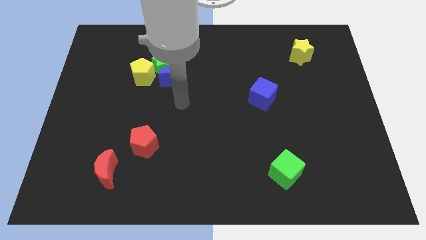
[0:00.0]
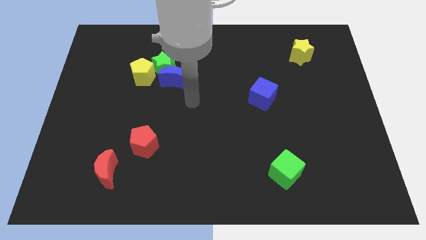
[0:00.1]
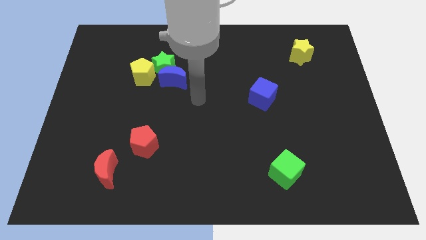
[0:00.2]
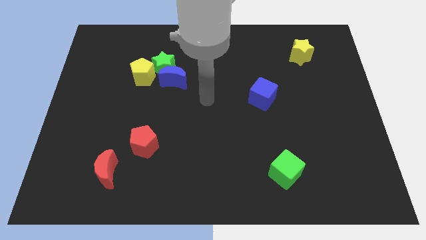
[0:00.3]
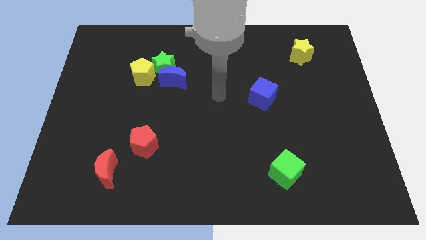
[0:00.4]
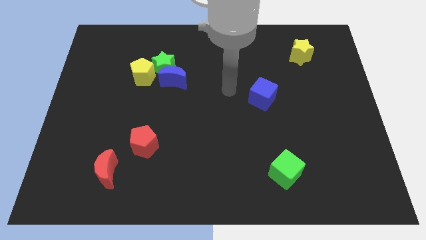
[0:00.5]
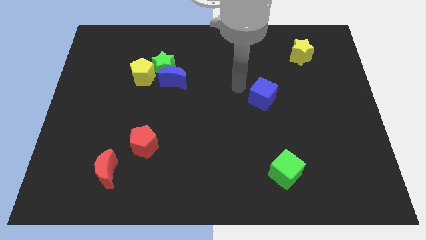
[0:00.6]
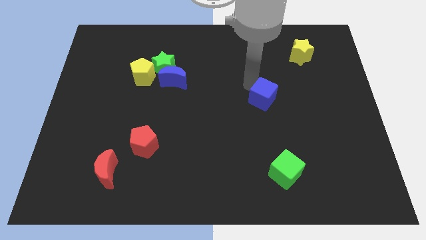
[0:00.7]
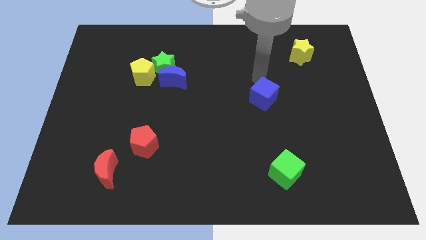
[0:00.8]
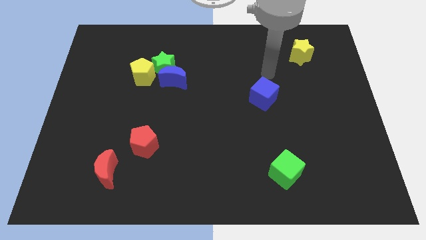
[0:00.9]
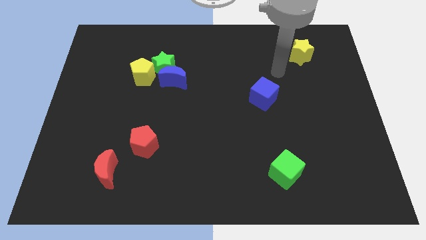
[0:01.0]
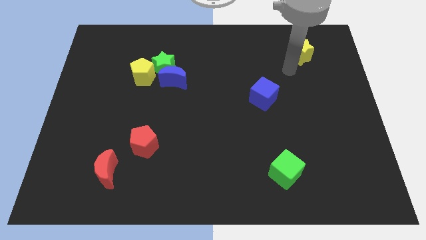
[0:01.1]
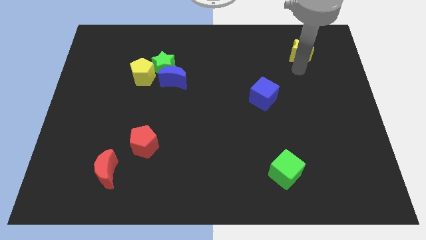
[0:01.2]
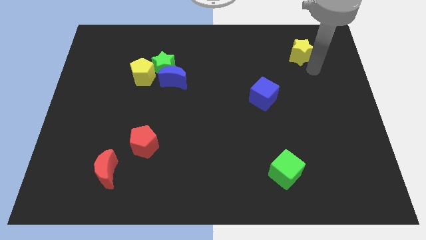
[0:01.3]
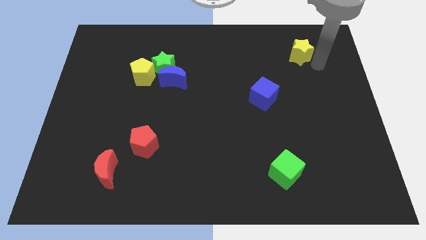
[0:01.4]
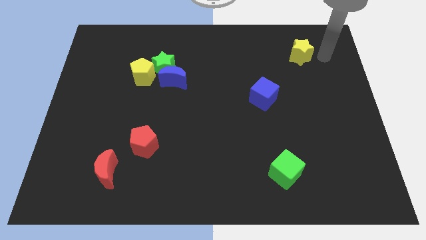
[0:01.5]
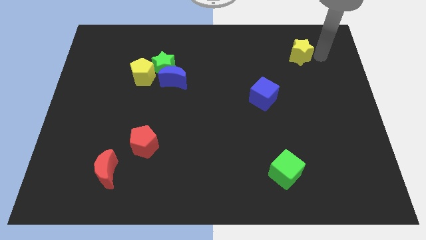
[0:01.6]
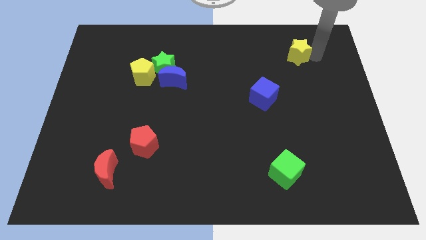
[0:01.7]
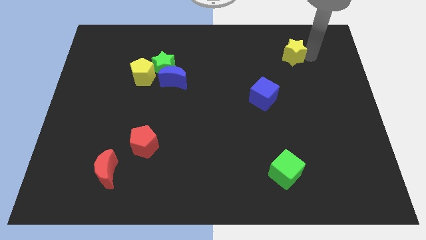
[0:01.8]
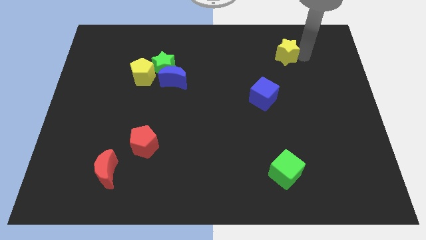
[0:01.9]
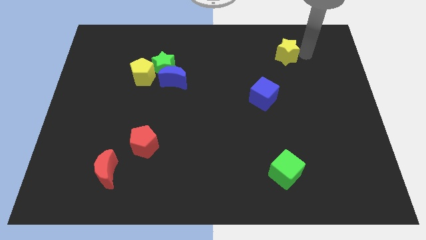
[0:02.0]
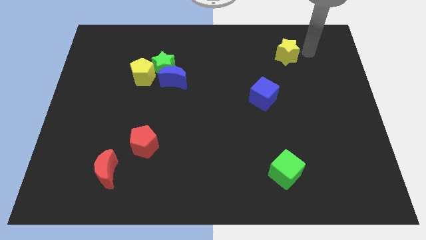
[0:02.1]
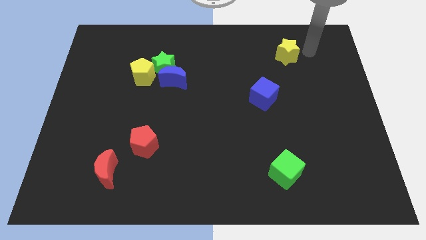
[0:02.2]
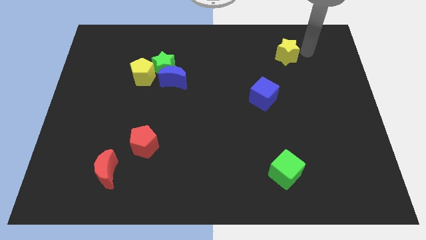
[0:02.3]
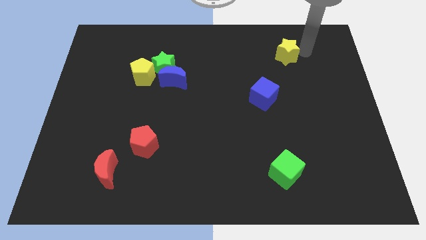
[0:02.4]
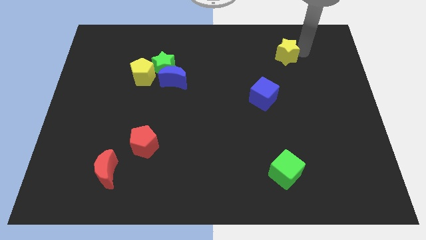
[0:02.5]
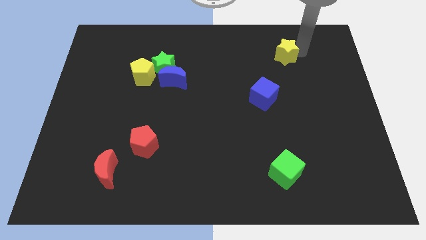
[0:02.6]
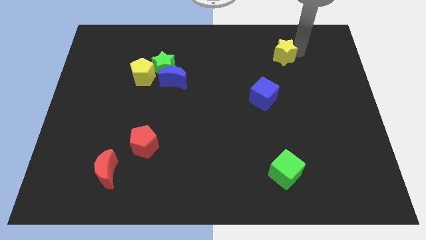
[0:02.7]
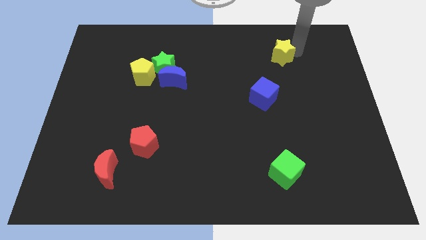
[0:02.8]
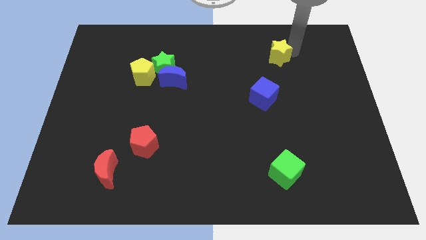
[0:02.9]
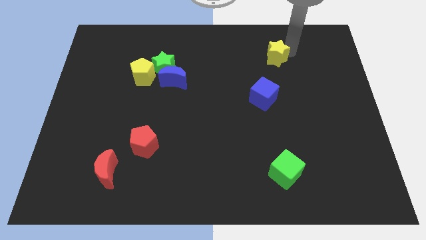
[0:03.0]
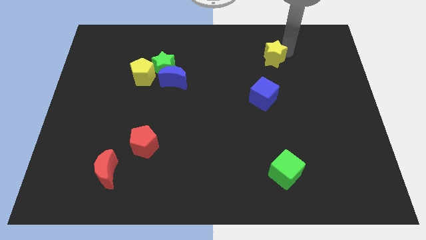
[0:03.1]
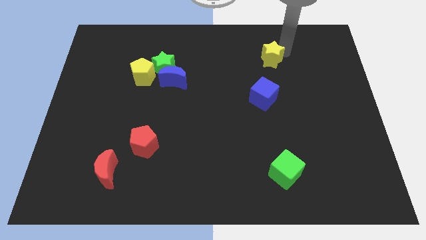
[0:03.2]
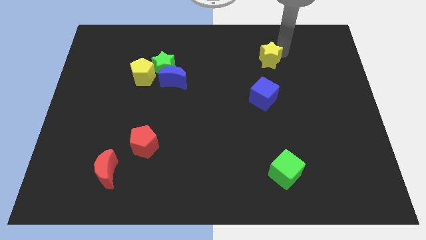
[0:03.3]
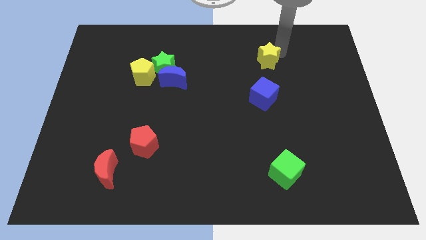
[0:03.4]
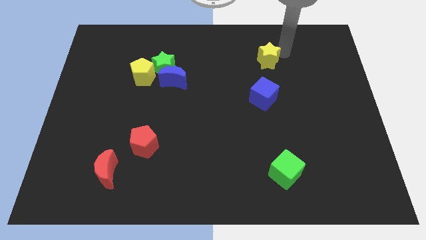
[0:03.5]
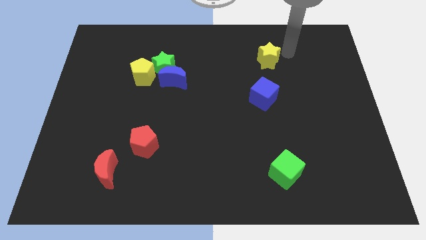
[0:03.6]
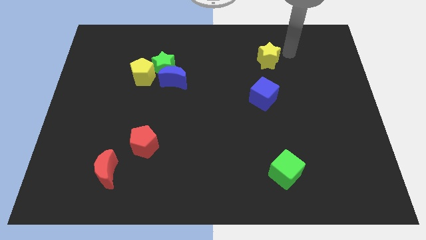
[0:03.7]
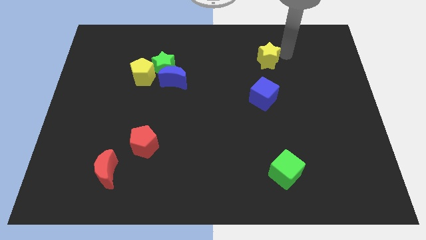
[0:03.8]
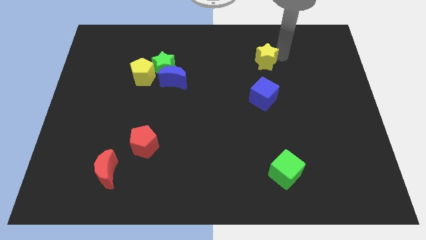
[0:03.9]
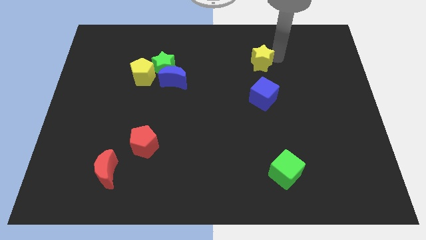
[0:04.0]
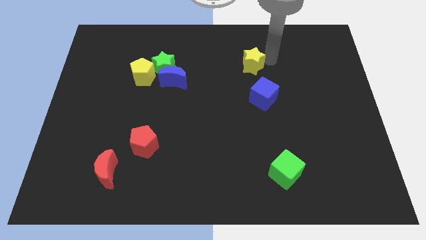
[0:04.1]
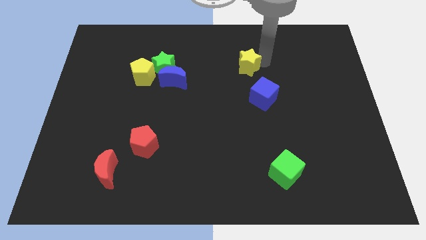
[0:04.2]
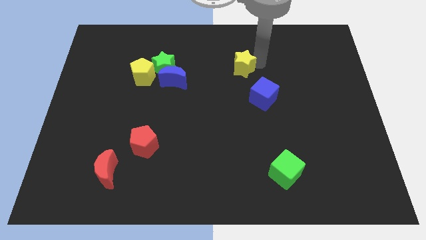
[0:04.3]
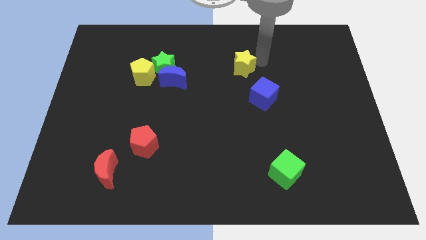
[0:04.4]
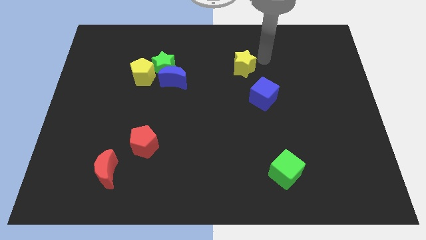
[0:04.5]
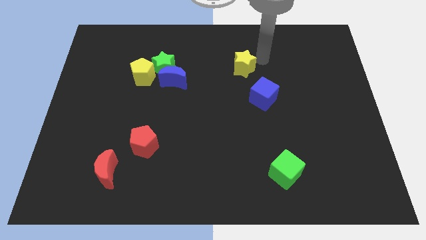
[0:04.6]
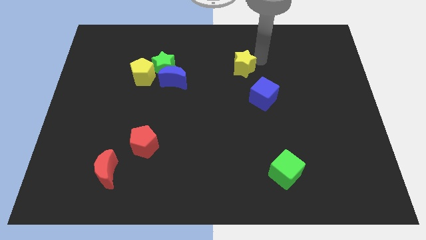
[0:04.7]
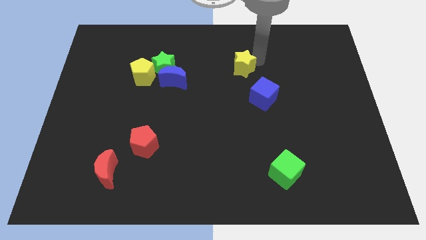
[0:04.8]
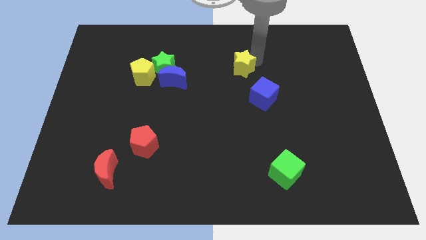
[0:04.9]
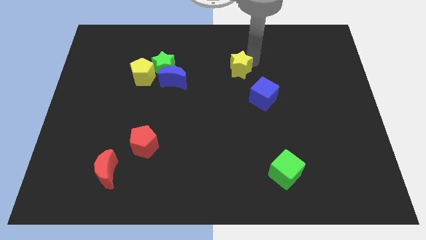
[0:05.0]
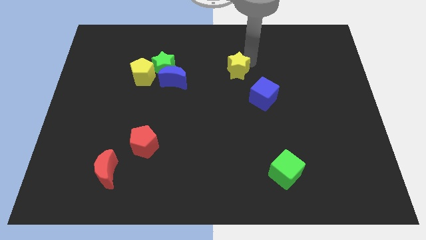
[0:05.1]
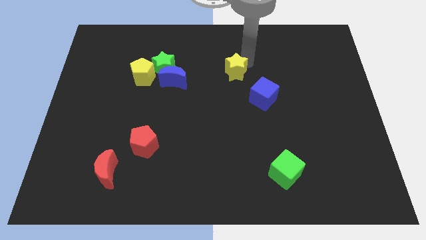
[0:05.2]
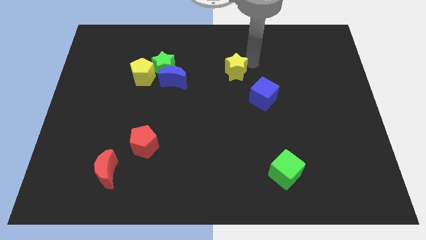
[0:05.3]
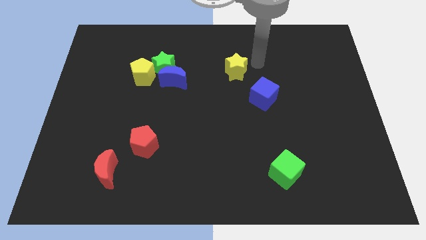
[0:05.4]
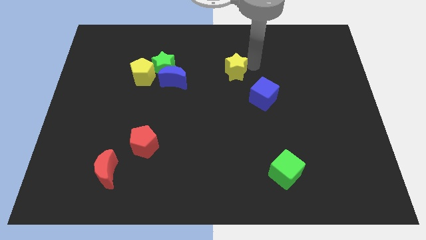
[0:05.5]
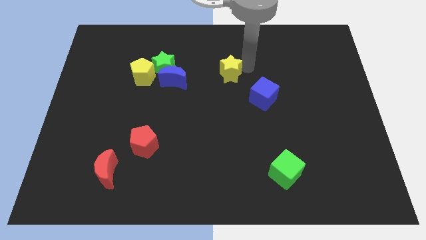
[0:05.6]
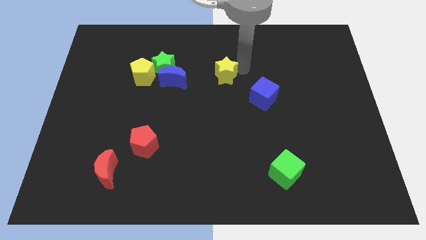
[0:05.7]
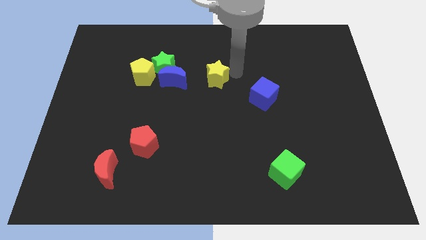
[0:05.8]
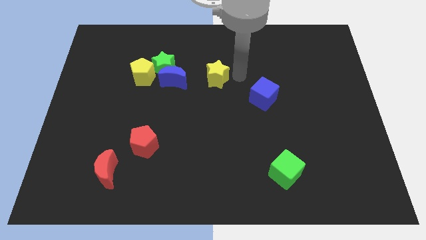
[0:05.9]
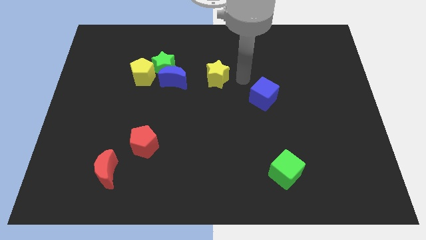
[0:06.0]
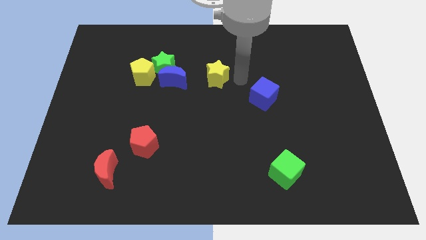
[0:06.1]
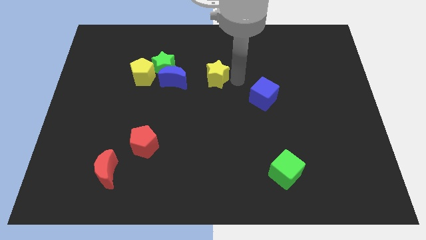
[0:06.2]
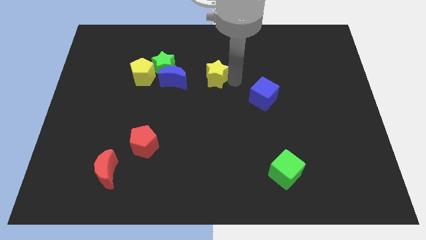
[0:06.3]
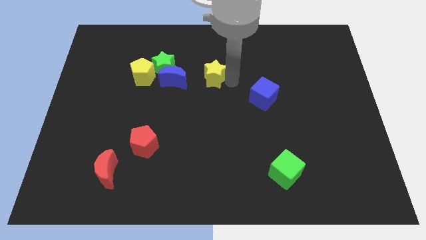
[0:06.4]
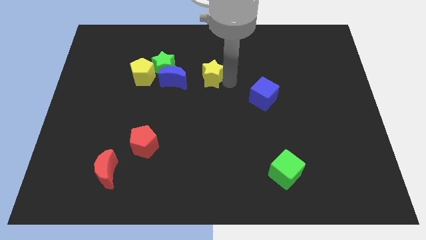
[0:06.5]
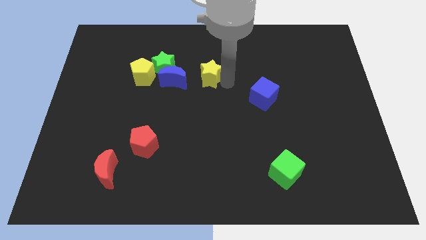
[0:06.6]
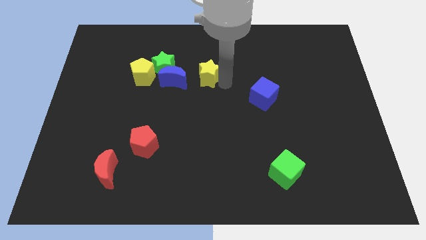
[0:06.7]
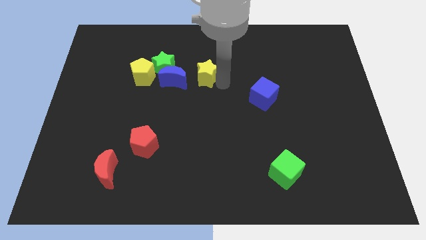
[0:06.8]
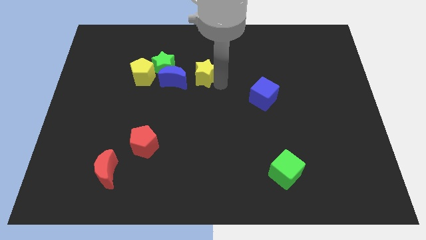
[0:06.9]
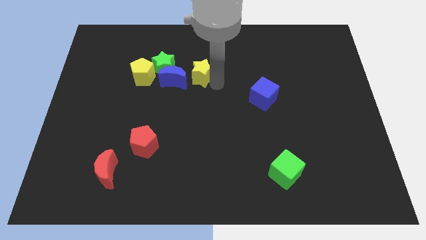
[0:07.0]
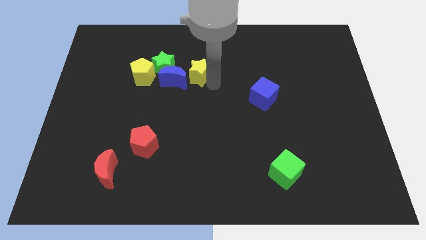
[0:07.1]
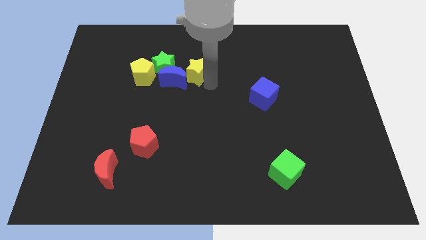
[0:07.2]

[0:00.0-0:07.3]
slide the yellow star to the blue moon

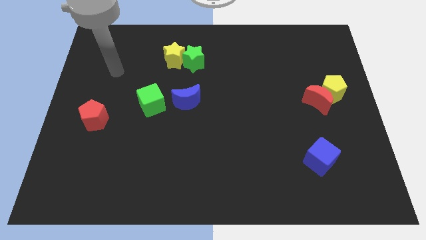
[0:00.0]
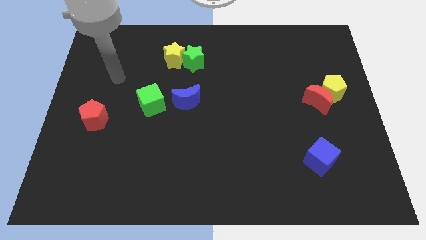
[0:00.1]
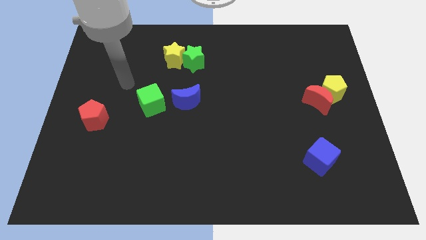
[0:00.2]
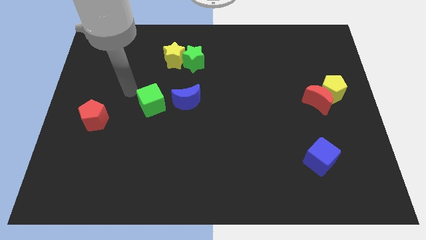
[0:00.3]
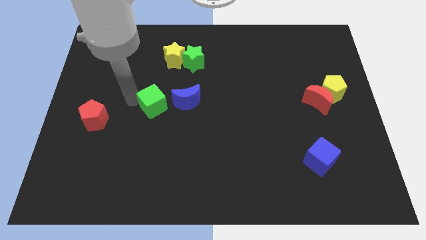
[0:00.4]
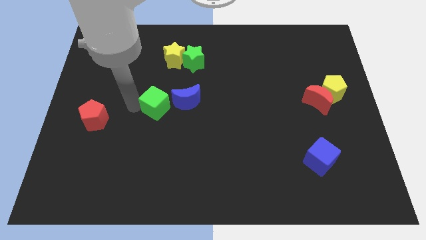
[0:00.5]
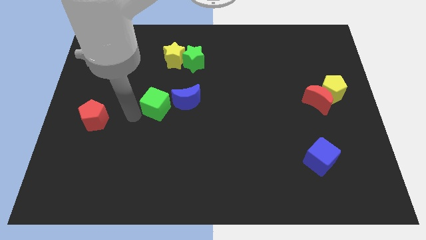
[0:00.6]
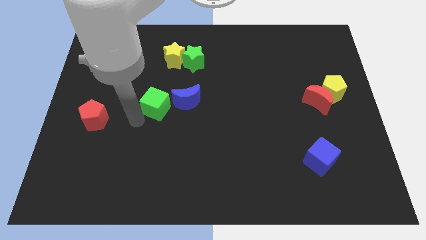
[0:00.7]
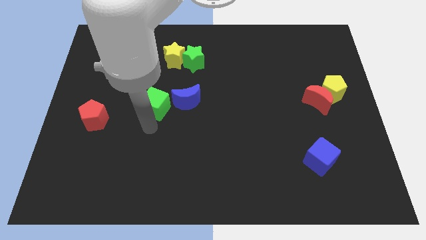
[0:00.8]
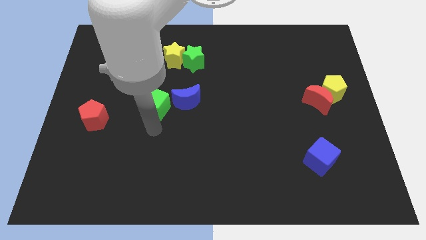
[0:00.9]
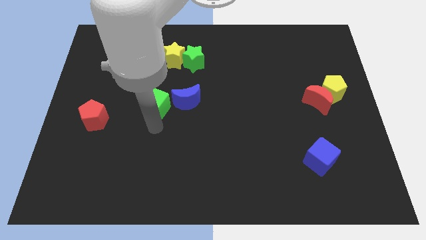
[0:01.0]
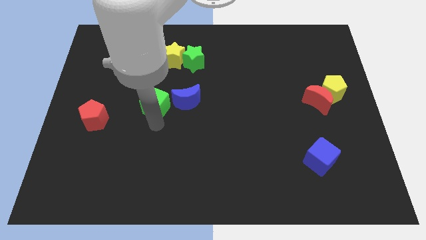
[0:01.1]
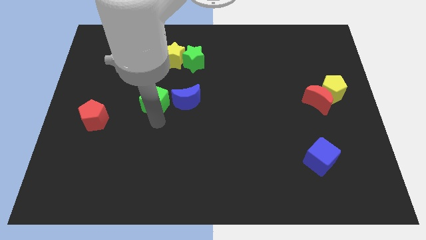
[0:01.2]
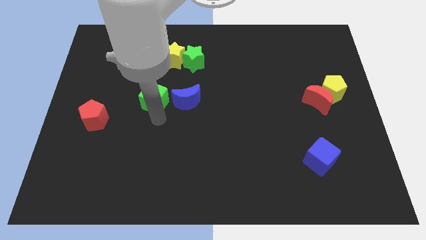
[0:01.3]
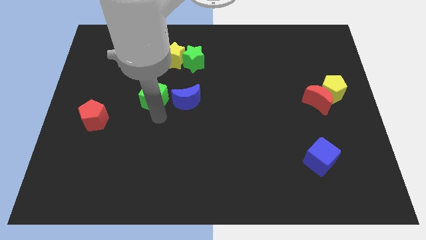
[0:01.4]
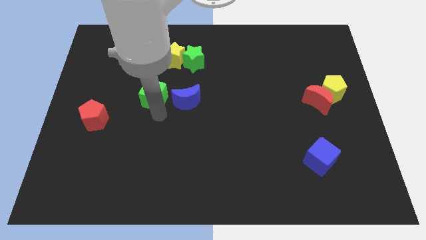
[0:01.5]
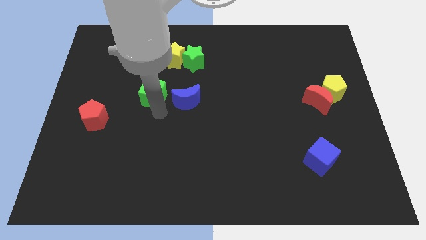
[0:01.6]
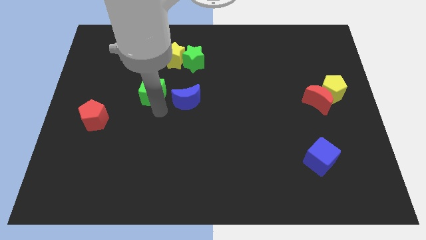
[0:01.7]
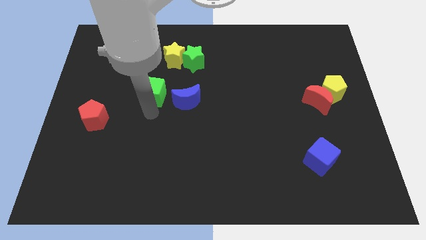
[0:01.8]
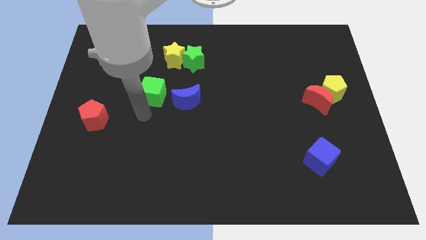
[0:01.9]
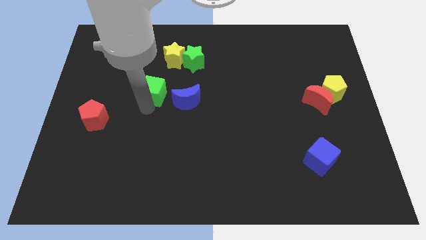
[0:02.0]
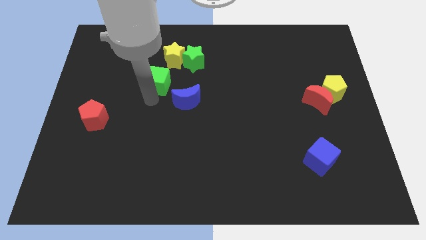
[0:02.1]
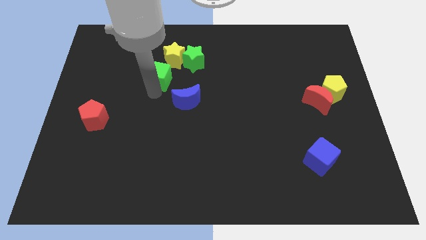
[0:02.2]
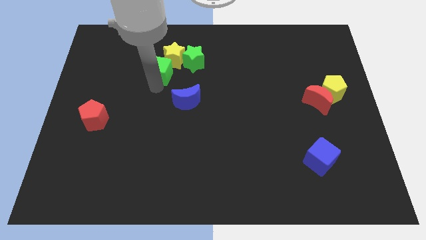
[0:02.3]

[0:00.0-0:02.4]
slide the green cube next to the yellow star
